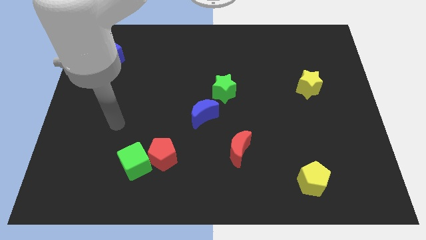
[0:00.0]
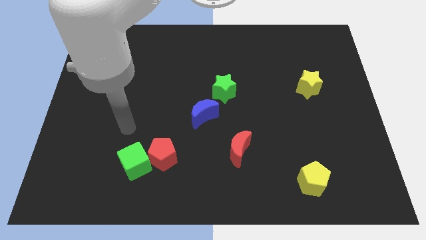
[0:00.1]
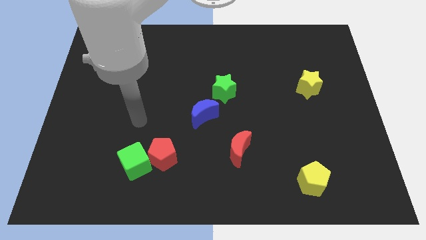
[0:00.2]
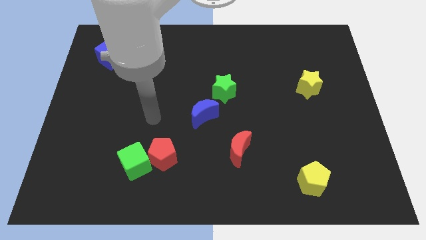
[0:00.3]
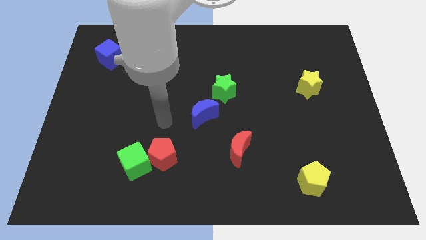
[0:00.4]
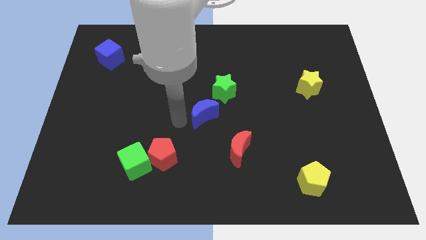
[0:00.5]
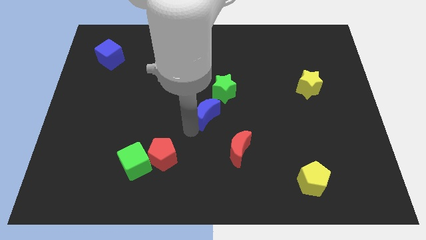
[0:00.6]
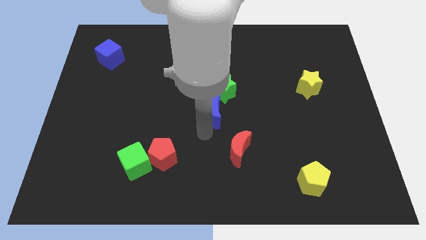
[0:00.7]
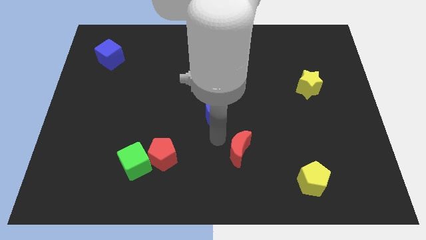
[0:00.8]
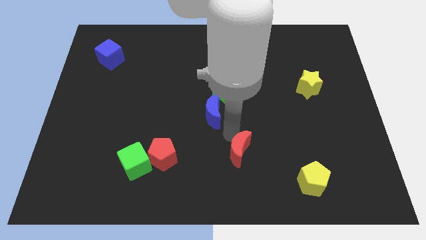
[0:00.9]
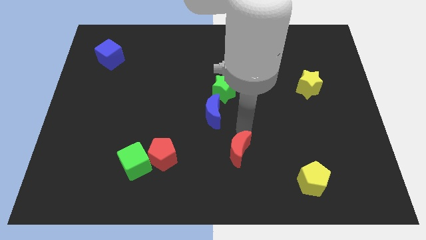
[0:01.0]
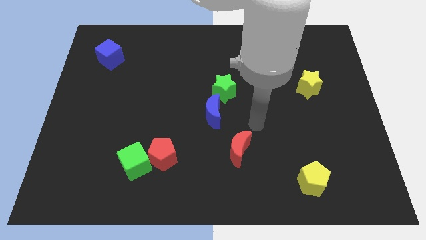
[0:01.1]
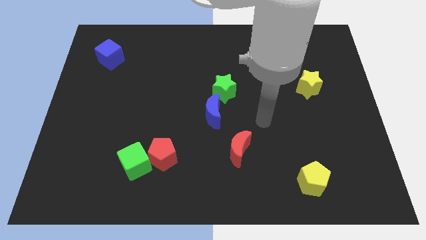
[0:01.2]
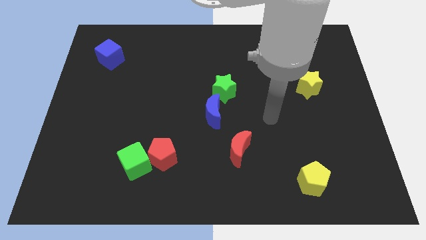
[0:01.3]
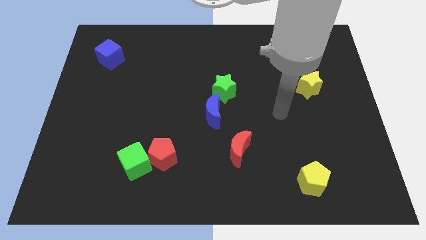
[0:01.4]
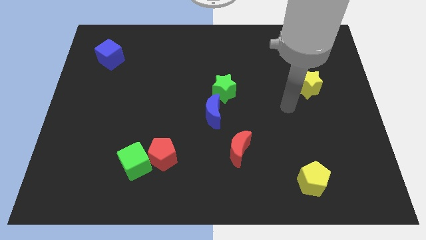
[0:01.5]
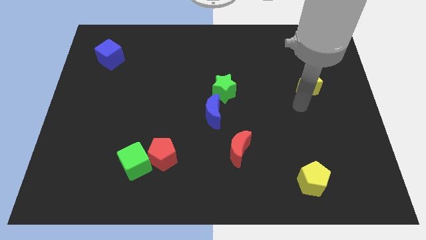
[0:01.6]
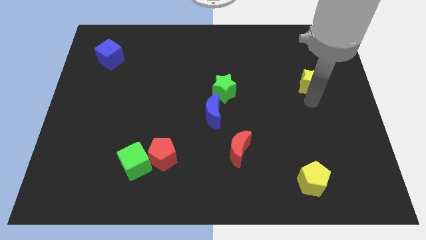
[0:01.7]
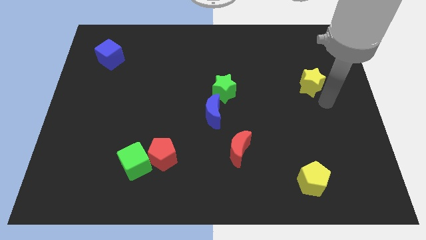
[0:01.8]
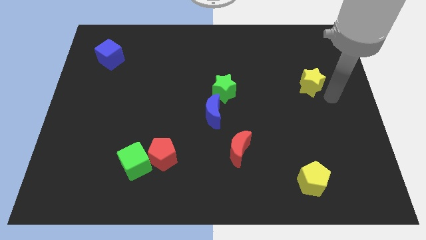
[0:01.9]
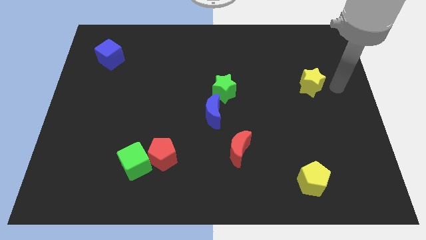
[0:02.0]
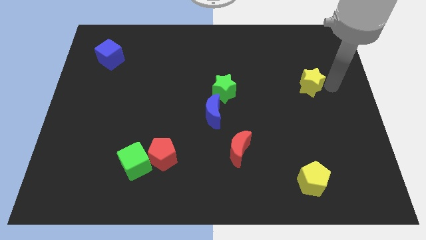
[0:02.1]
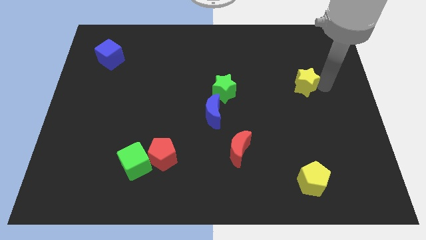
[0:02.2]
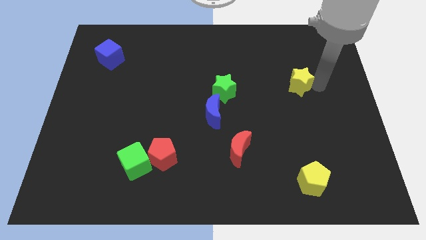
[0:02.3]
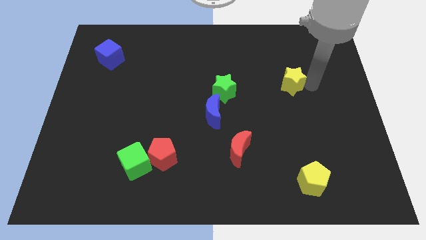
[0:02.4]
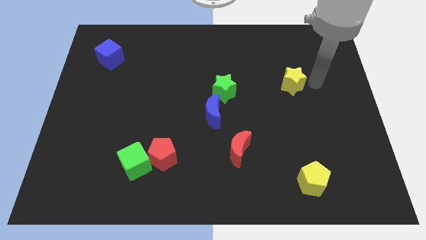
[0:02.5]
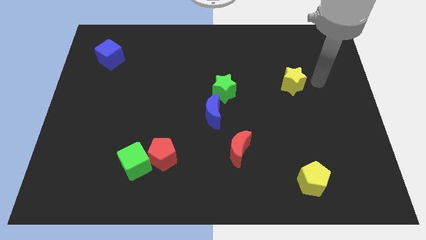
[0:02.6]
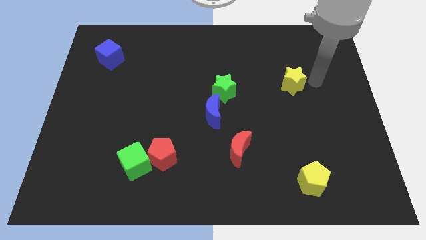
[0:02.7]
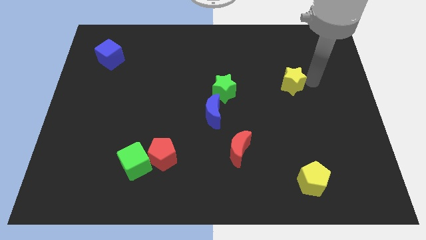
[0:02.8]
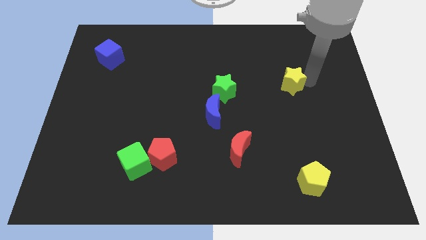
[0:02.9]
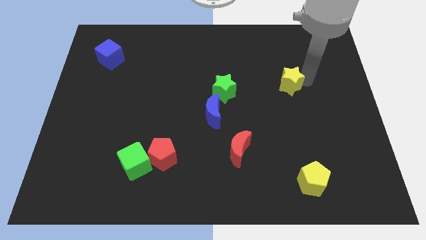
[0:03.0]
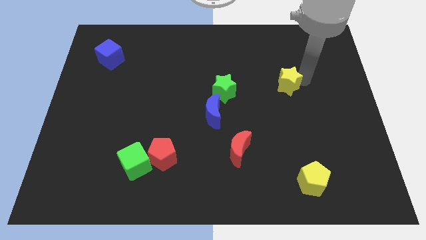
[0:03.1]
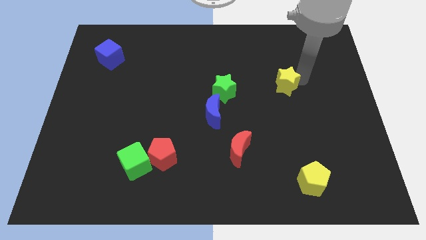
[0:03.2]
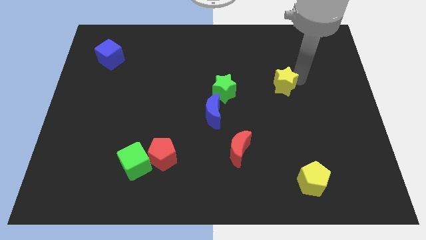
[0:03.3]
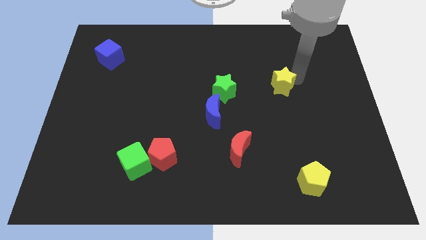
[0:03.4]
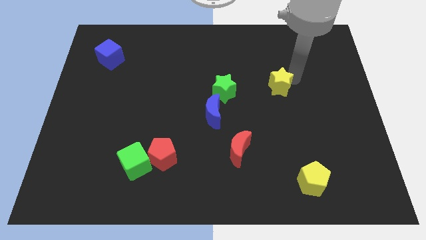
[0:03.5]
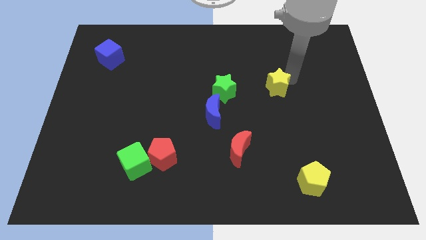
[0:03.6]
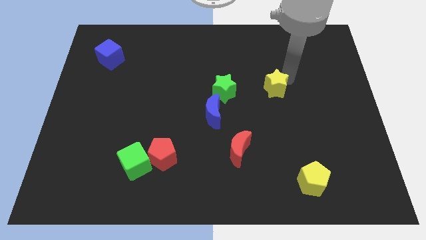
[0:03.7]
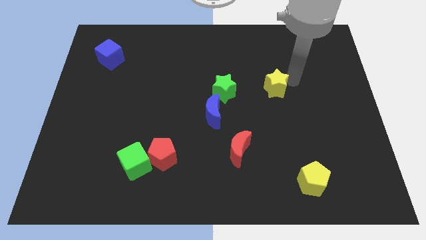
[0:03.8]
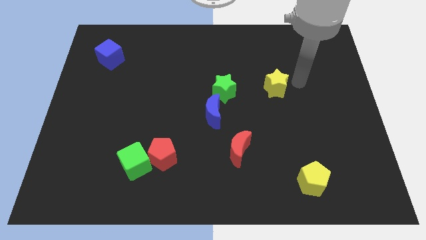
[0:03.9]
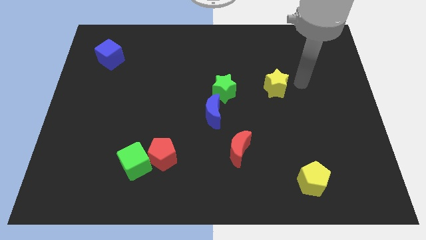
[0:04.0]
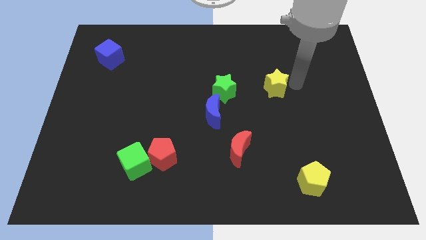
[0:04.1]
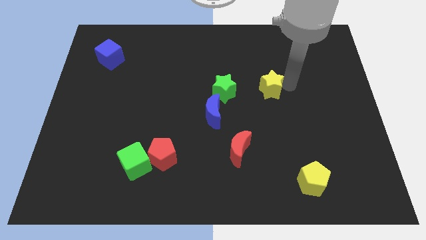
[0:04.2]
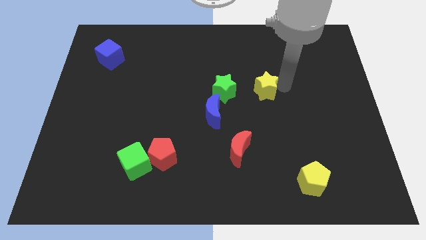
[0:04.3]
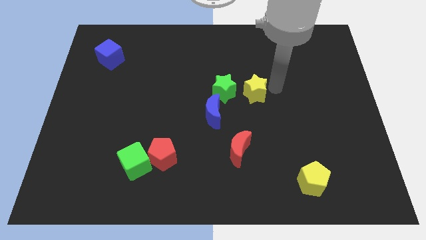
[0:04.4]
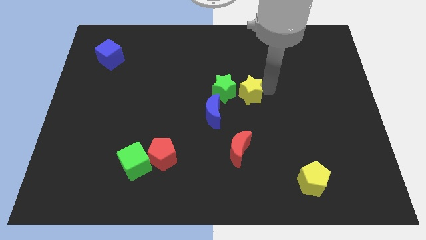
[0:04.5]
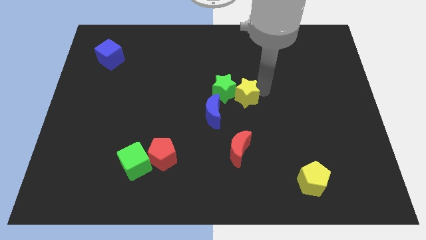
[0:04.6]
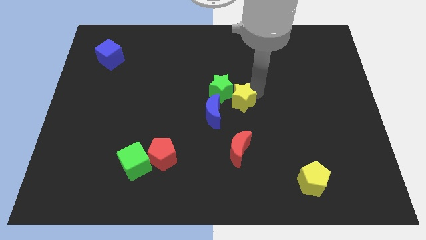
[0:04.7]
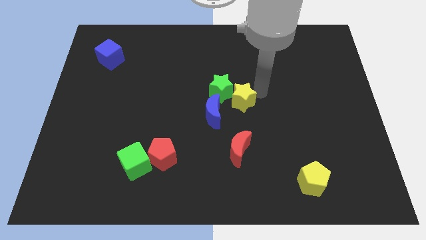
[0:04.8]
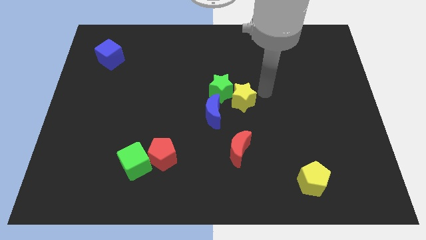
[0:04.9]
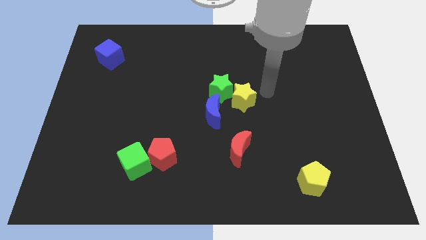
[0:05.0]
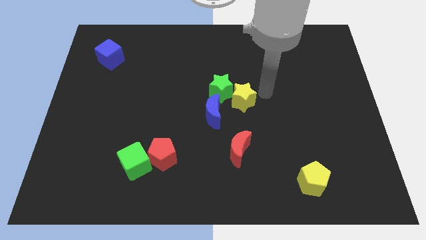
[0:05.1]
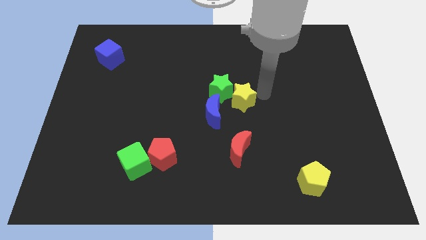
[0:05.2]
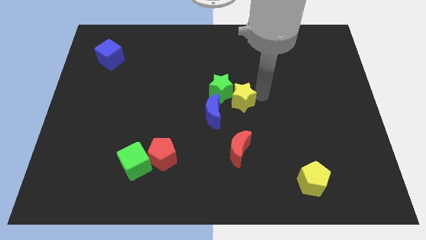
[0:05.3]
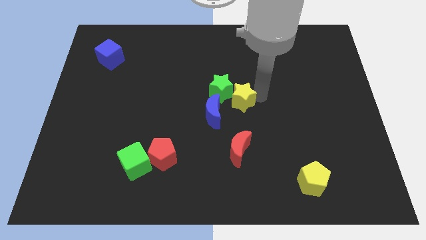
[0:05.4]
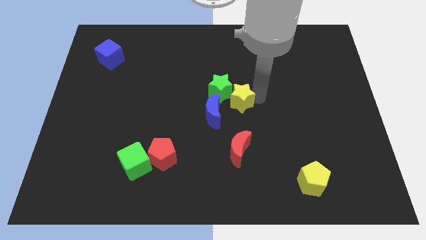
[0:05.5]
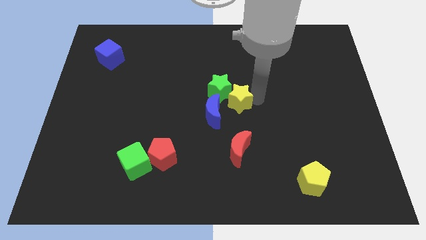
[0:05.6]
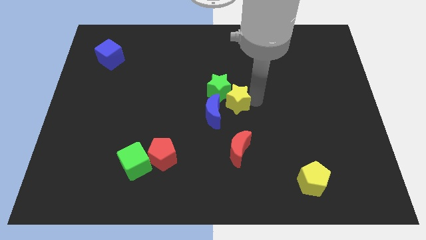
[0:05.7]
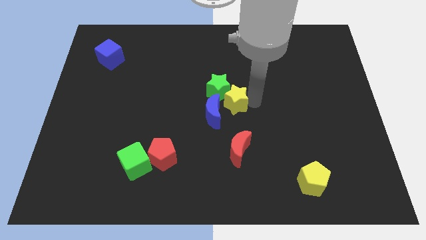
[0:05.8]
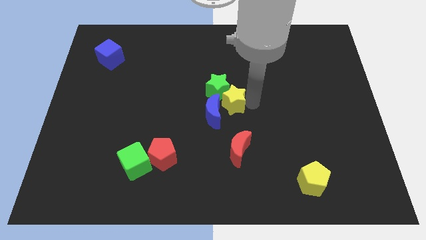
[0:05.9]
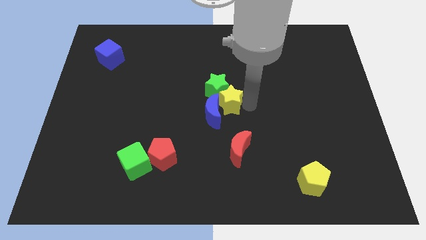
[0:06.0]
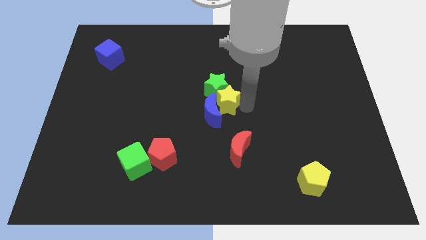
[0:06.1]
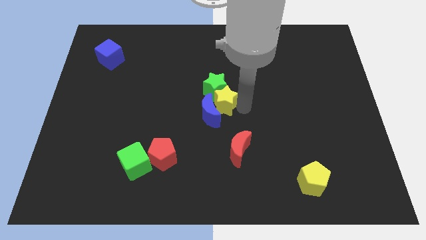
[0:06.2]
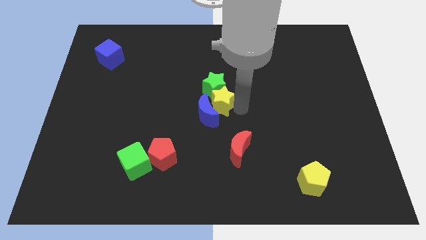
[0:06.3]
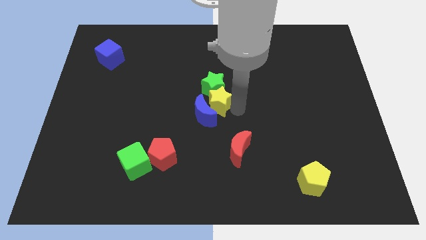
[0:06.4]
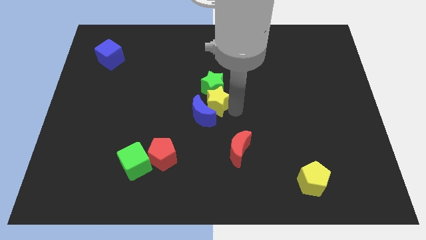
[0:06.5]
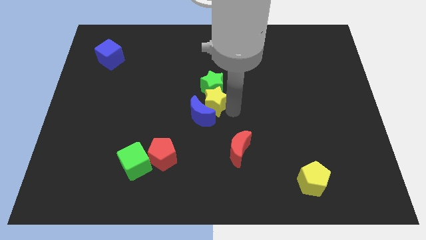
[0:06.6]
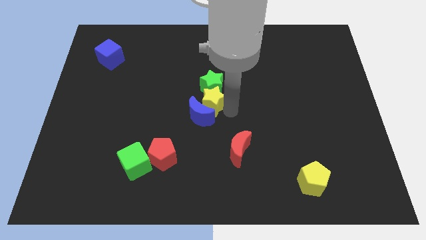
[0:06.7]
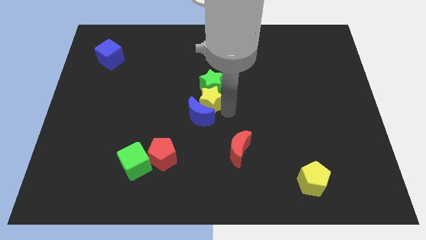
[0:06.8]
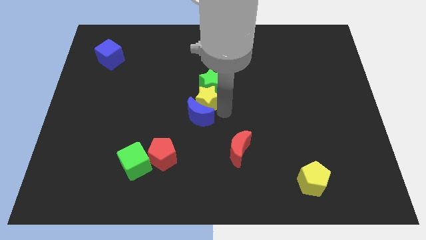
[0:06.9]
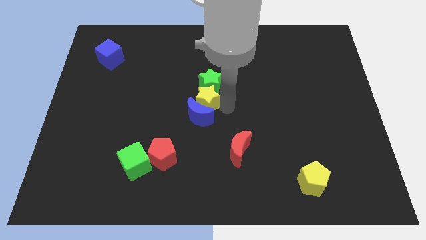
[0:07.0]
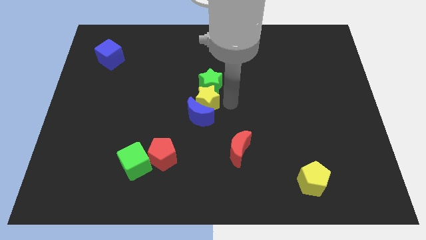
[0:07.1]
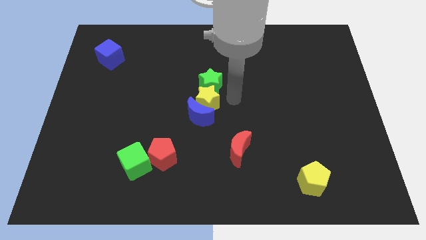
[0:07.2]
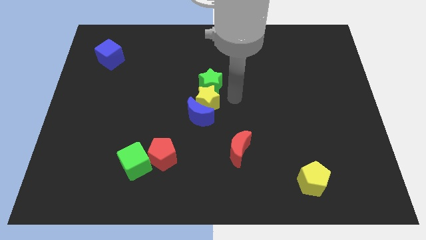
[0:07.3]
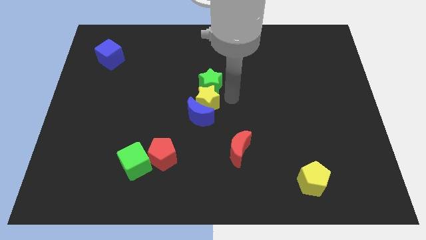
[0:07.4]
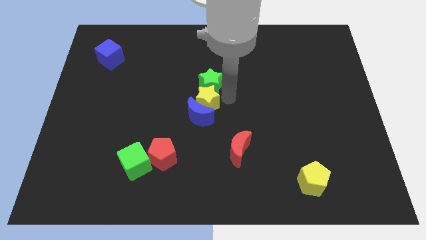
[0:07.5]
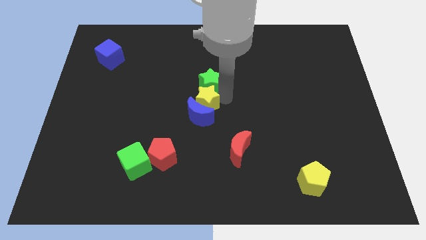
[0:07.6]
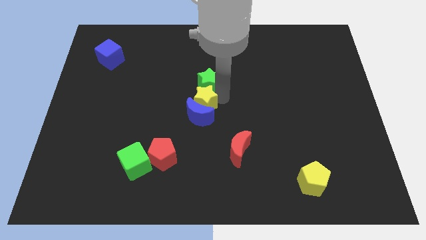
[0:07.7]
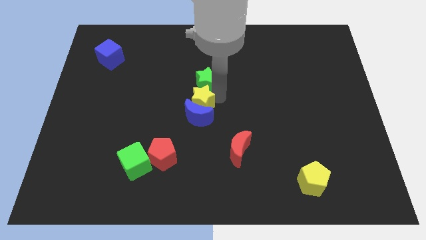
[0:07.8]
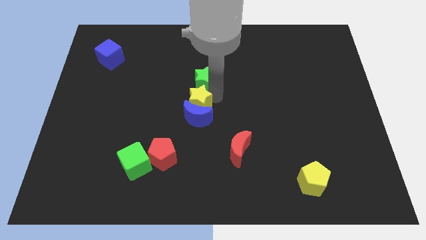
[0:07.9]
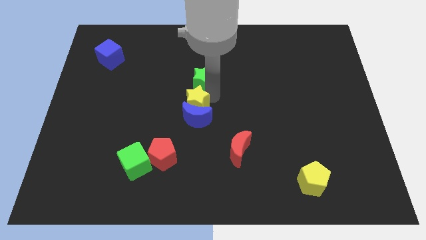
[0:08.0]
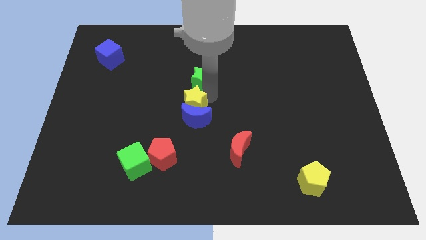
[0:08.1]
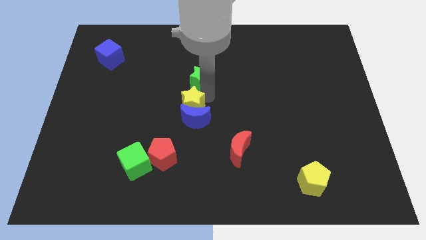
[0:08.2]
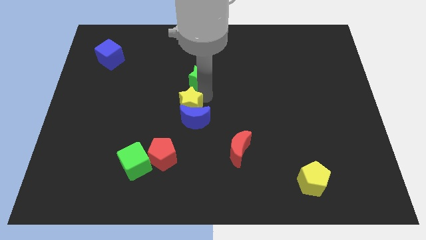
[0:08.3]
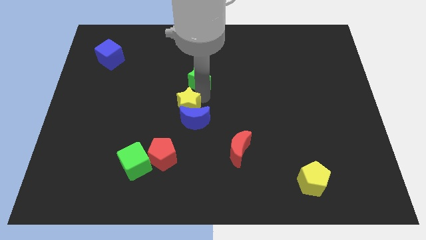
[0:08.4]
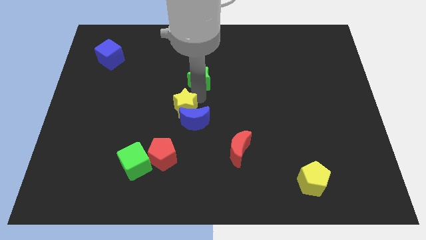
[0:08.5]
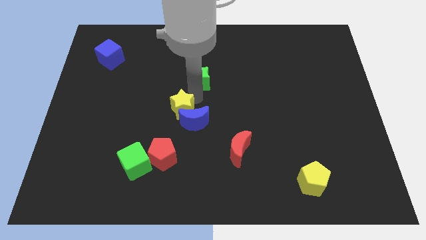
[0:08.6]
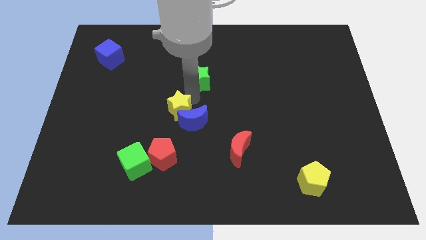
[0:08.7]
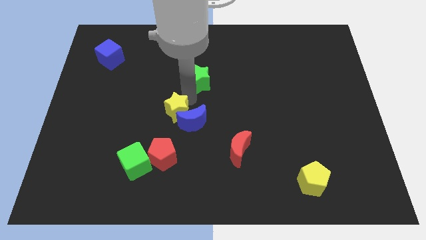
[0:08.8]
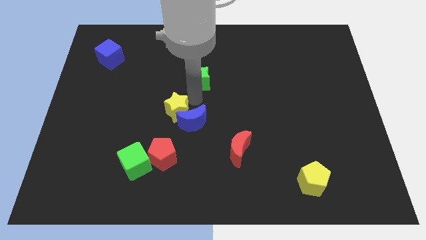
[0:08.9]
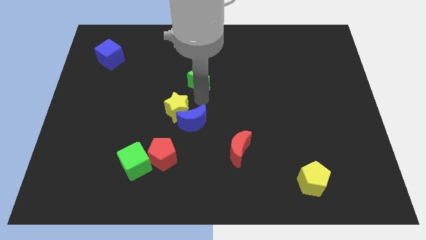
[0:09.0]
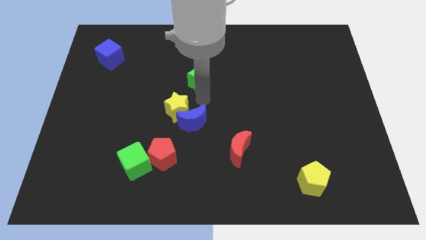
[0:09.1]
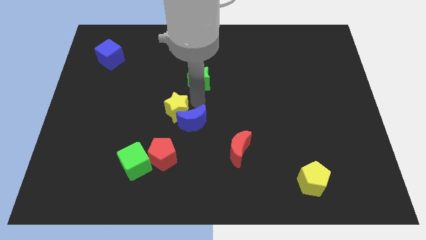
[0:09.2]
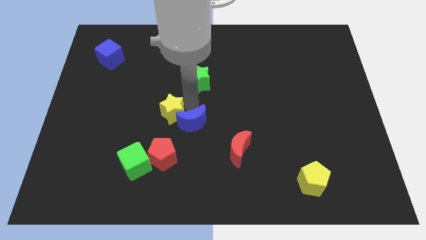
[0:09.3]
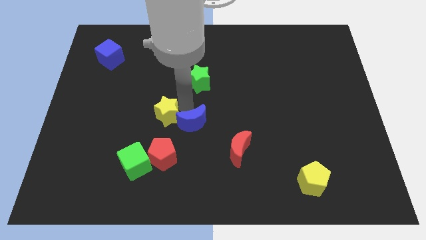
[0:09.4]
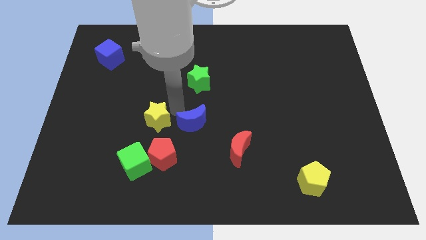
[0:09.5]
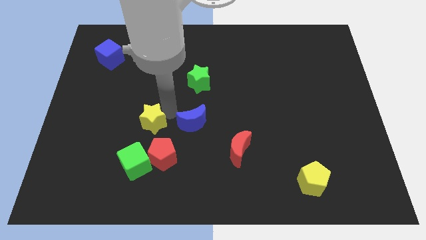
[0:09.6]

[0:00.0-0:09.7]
slide the yellow star diagonally up and to the left of the red pentagon
